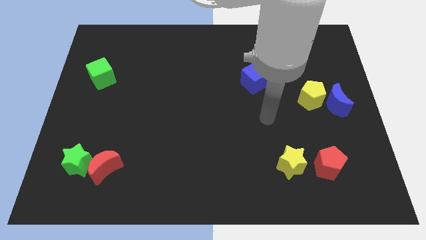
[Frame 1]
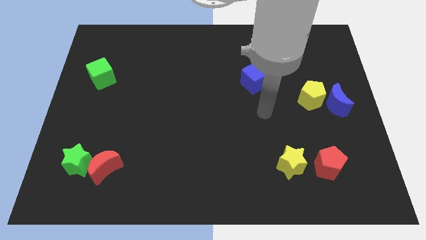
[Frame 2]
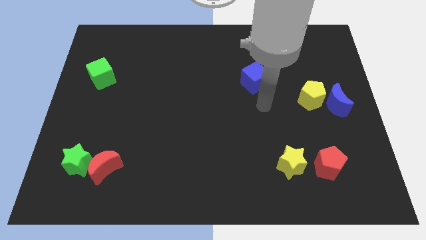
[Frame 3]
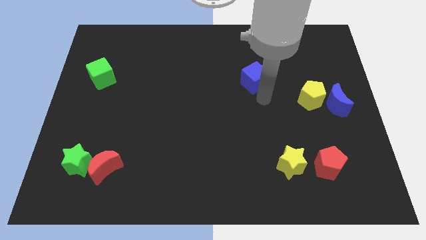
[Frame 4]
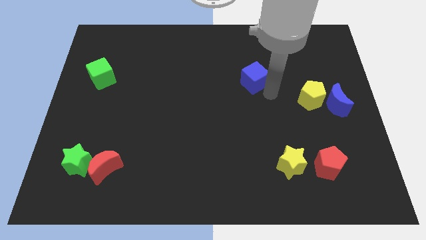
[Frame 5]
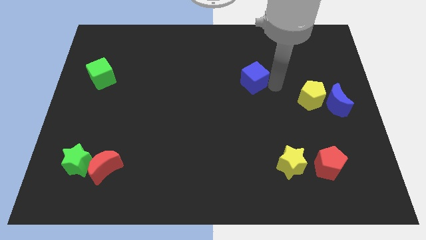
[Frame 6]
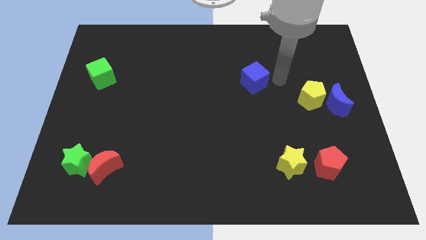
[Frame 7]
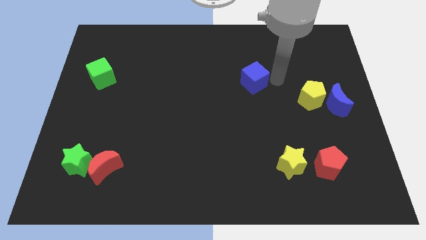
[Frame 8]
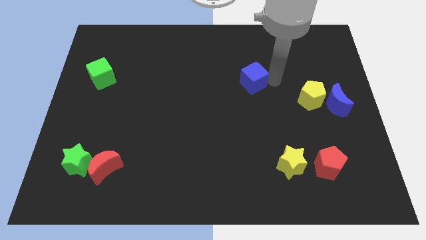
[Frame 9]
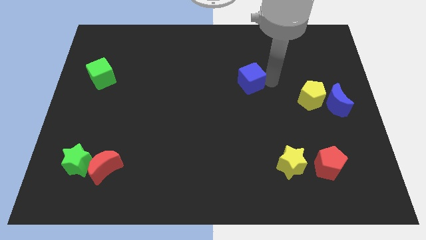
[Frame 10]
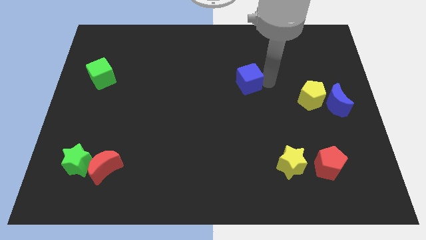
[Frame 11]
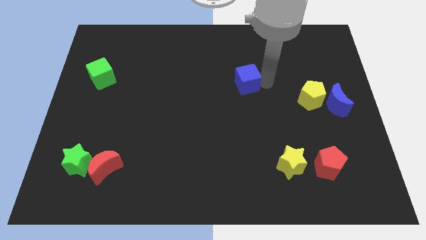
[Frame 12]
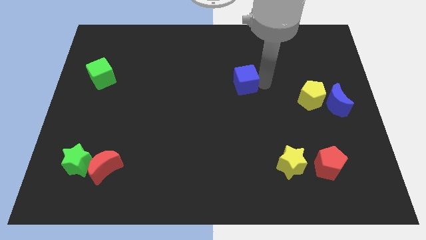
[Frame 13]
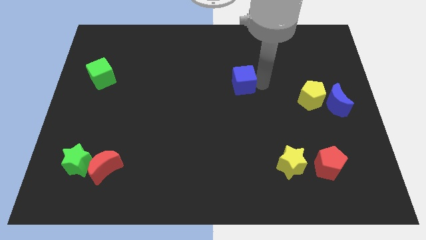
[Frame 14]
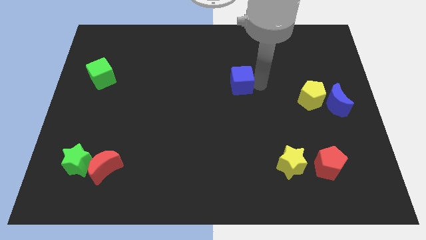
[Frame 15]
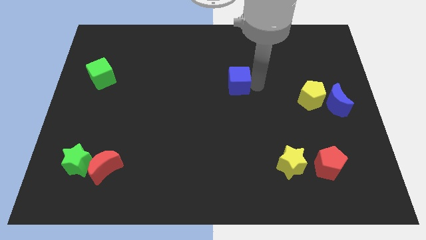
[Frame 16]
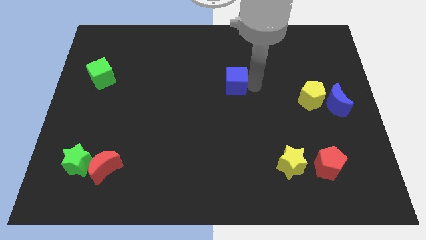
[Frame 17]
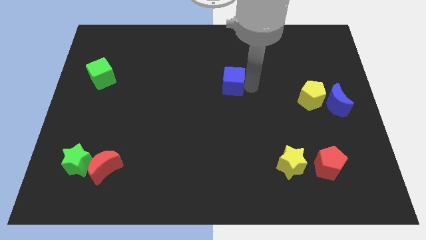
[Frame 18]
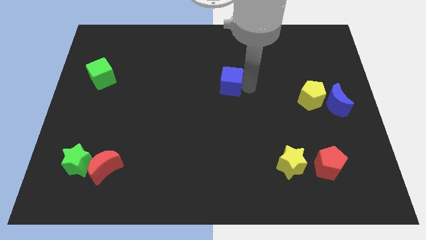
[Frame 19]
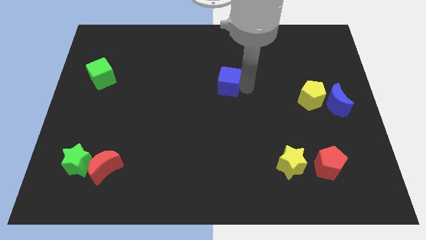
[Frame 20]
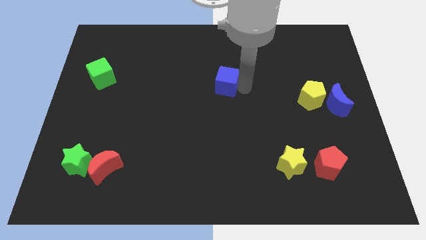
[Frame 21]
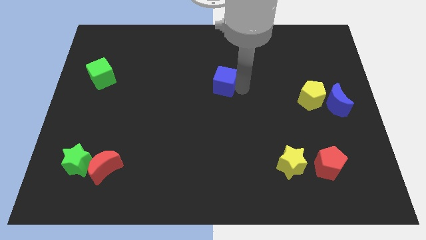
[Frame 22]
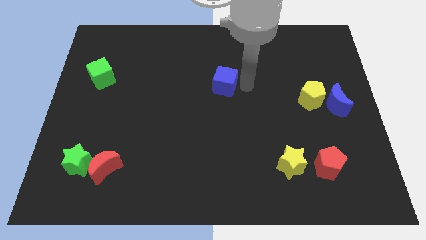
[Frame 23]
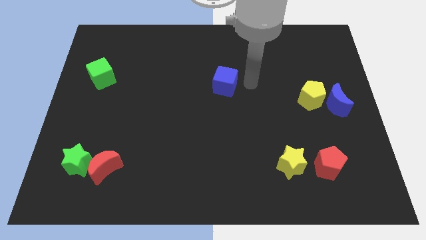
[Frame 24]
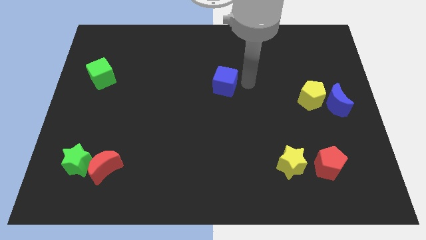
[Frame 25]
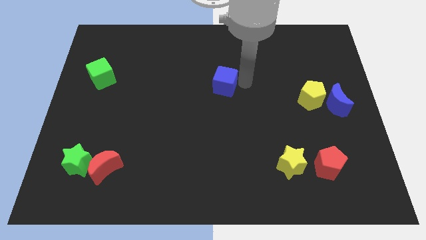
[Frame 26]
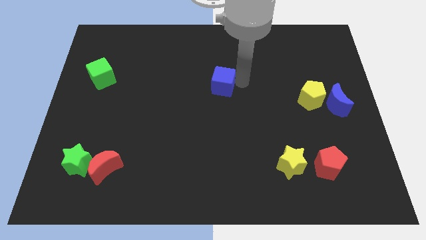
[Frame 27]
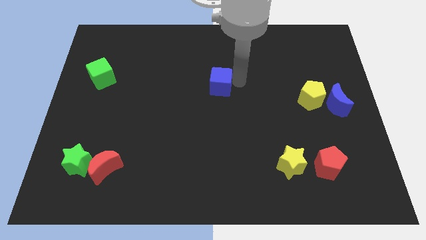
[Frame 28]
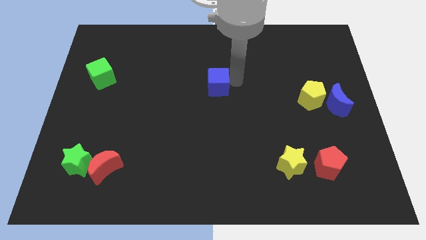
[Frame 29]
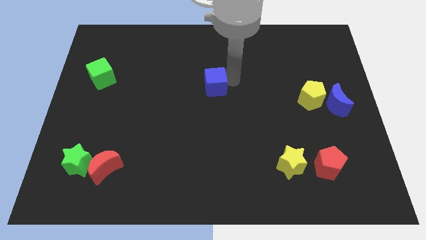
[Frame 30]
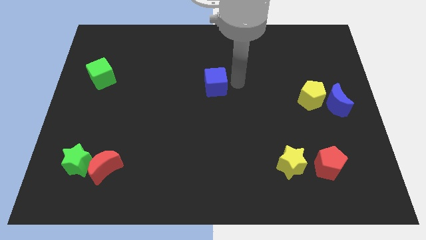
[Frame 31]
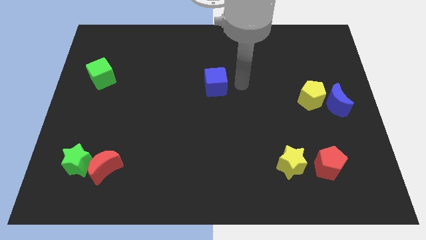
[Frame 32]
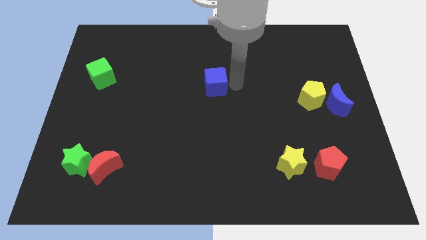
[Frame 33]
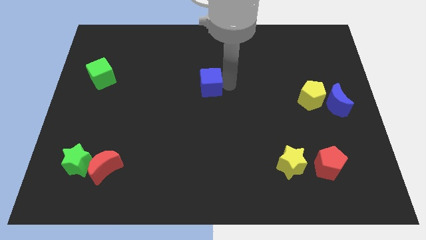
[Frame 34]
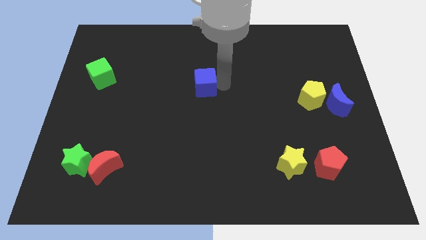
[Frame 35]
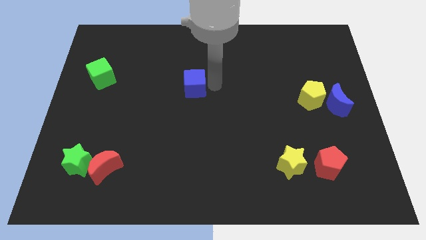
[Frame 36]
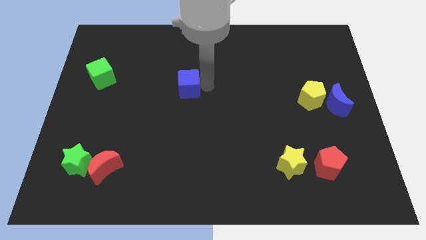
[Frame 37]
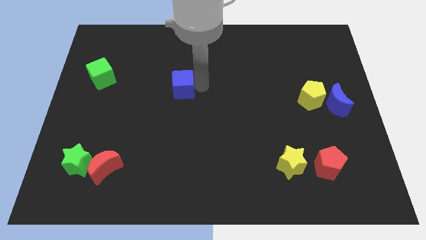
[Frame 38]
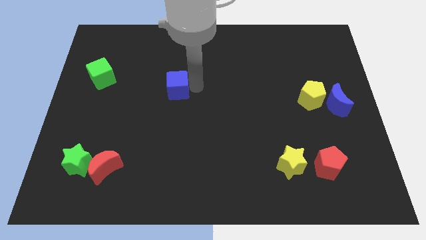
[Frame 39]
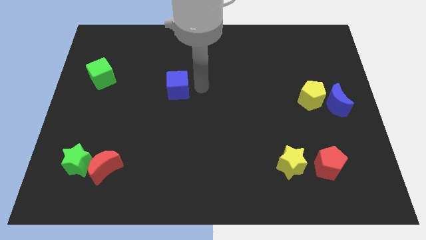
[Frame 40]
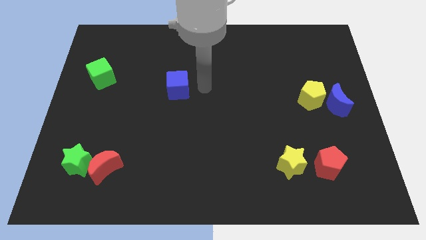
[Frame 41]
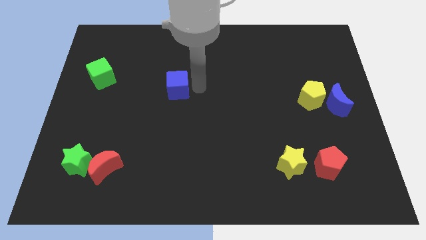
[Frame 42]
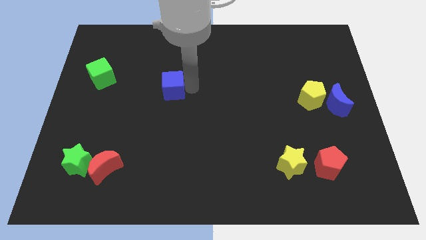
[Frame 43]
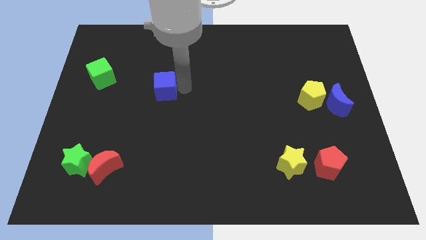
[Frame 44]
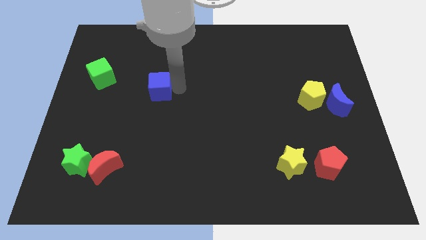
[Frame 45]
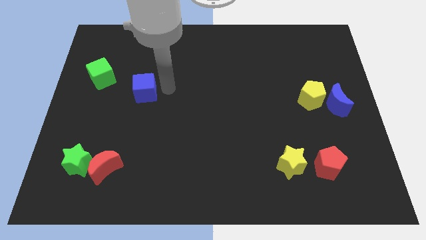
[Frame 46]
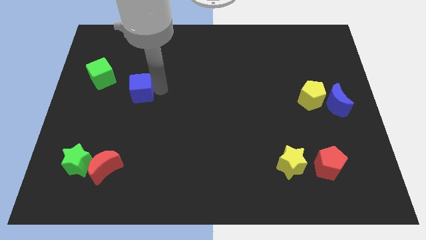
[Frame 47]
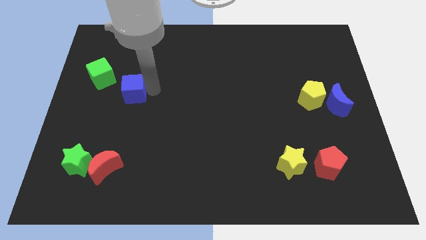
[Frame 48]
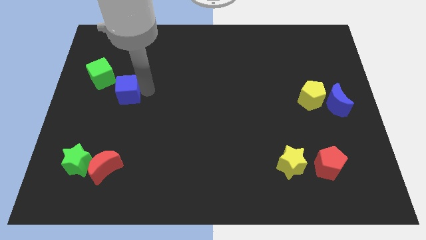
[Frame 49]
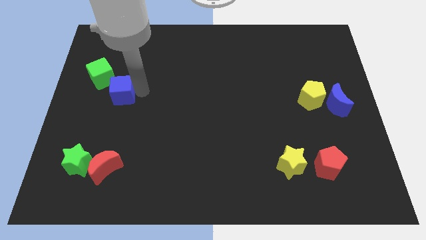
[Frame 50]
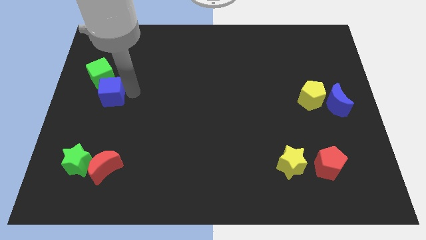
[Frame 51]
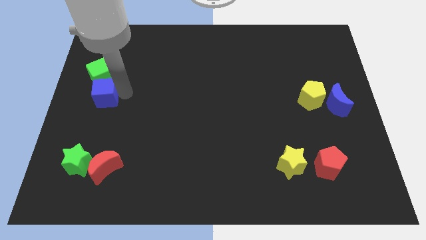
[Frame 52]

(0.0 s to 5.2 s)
move the blue cube to the left side of the board

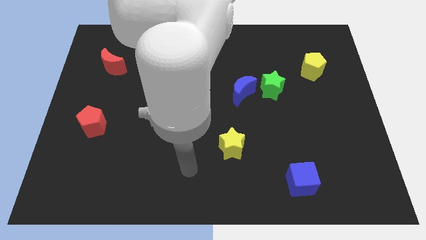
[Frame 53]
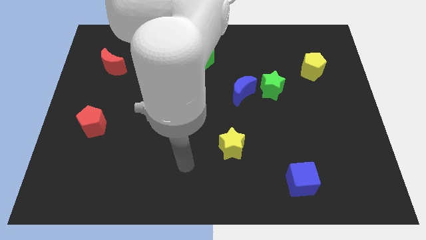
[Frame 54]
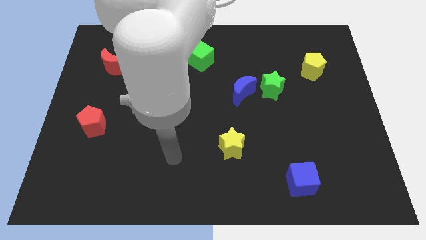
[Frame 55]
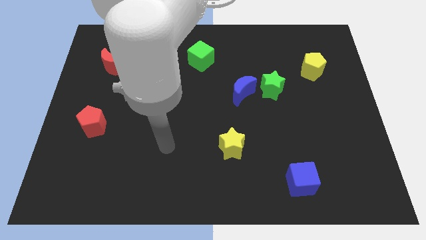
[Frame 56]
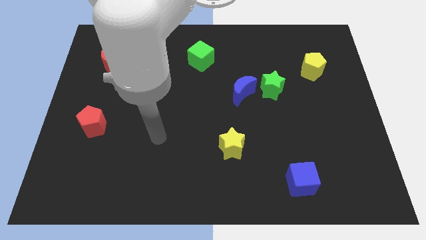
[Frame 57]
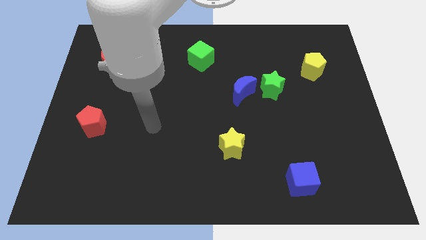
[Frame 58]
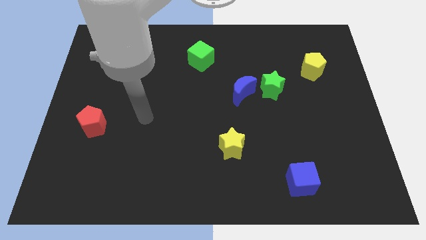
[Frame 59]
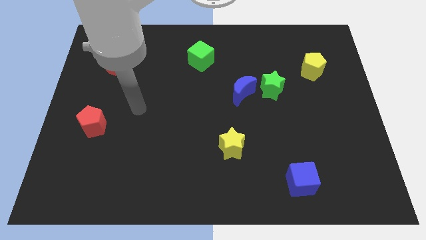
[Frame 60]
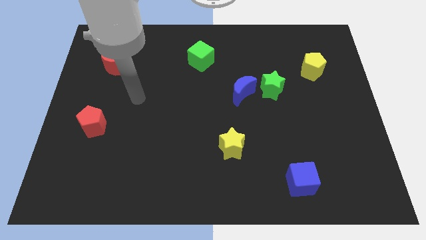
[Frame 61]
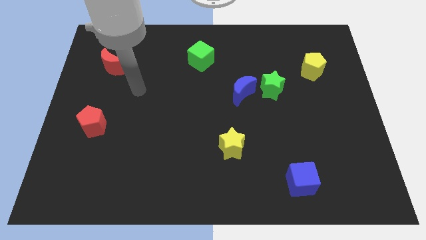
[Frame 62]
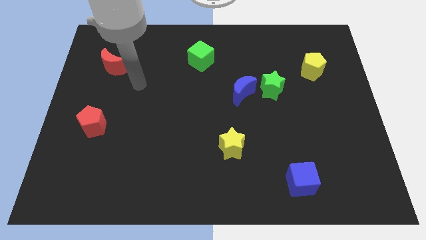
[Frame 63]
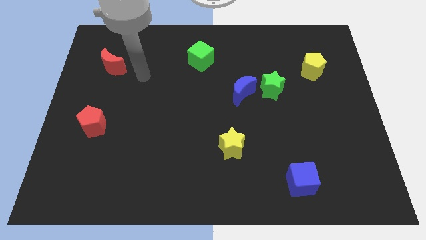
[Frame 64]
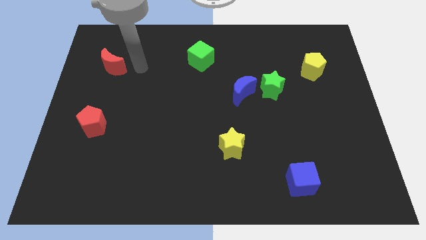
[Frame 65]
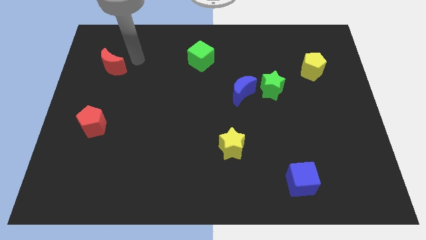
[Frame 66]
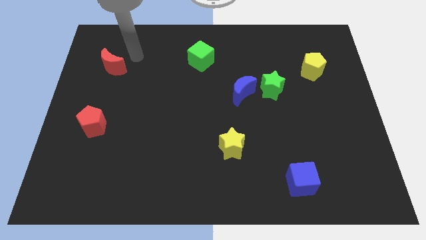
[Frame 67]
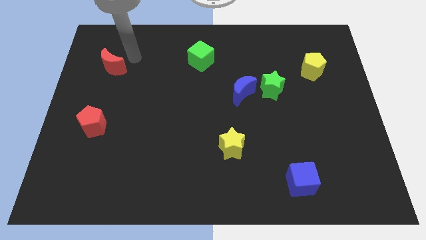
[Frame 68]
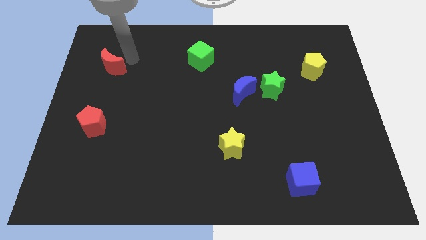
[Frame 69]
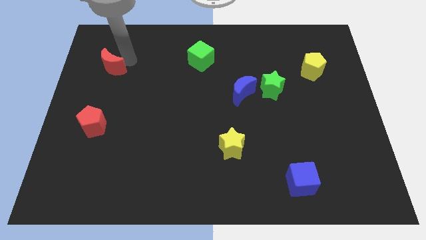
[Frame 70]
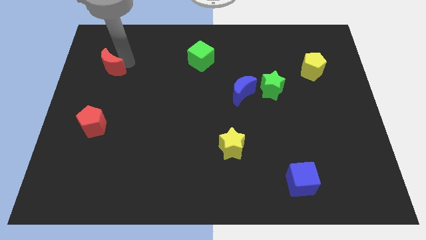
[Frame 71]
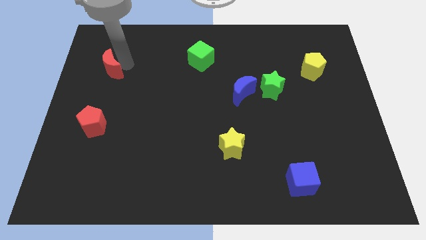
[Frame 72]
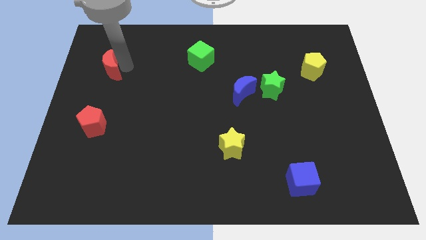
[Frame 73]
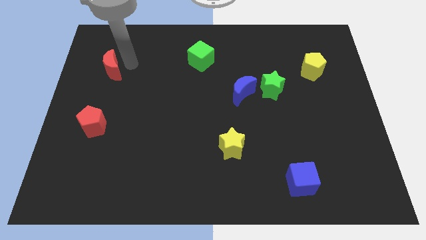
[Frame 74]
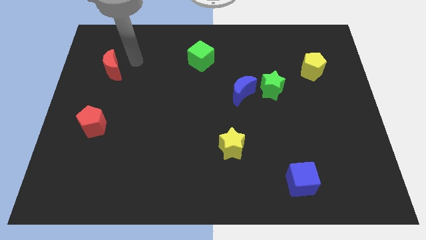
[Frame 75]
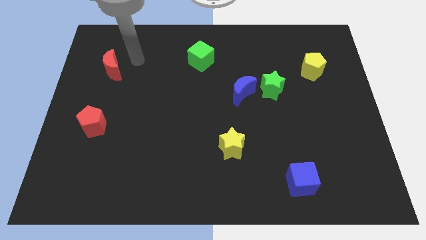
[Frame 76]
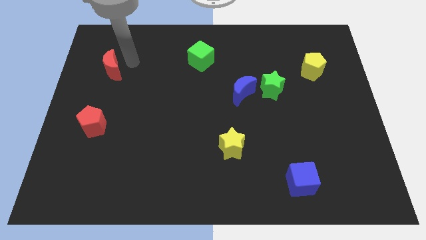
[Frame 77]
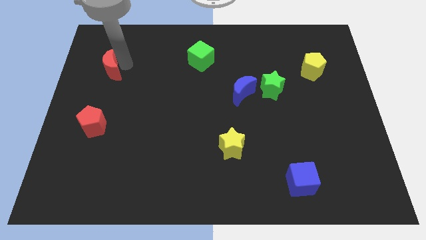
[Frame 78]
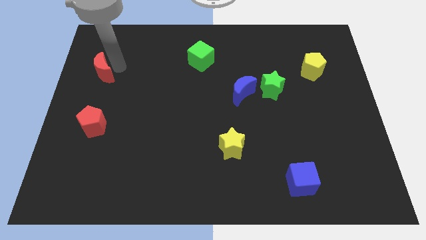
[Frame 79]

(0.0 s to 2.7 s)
push the red moon to the left side of the board

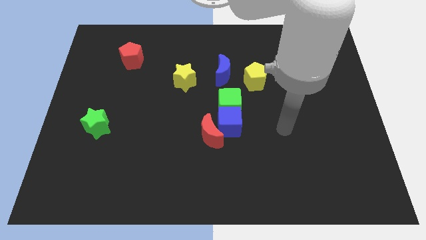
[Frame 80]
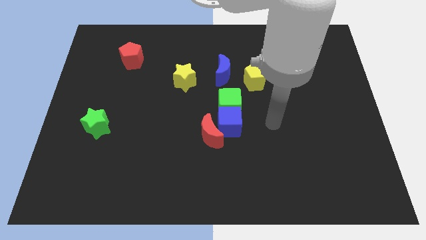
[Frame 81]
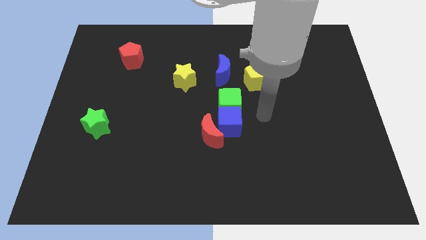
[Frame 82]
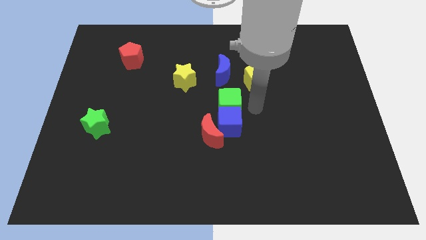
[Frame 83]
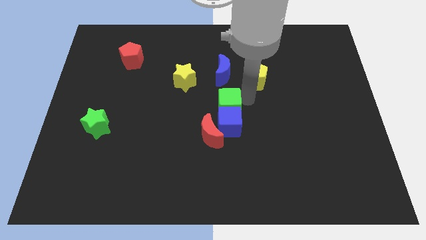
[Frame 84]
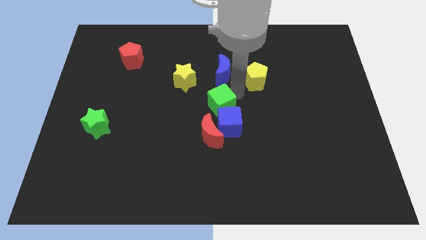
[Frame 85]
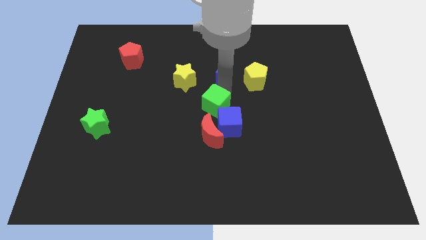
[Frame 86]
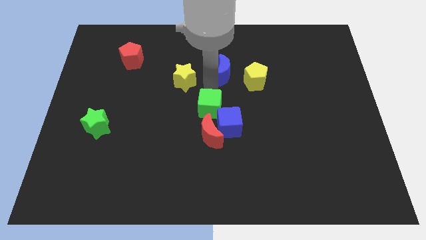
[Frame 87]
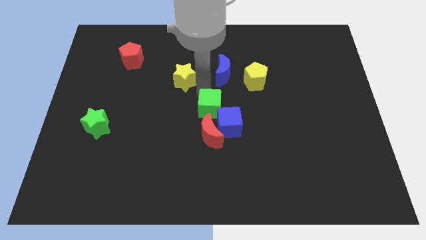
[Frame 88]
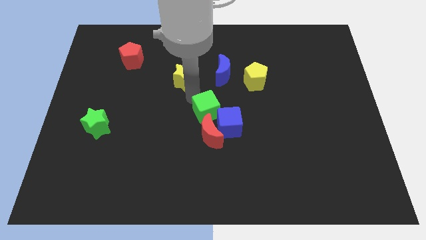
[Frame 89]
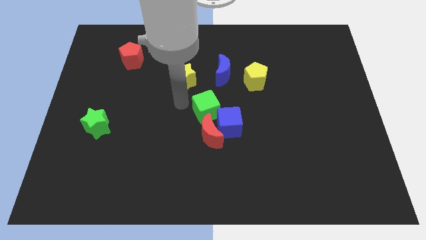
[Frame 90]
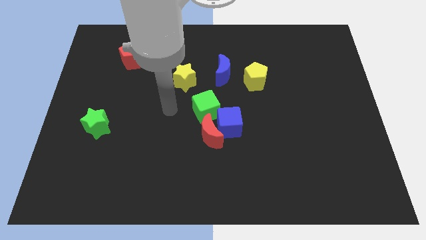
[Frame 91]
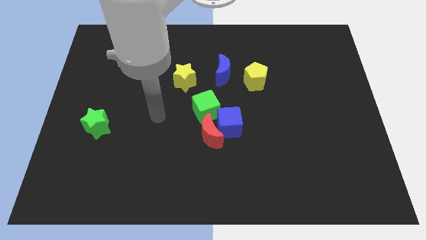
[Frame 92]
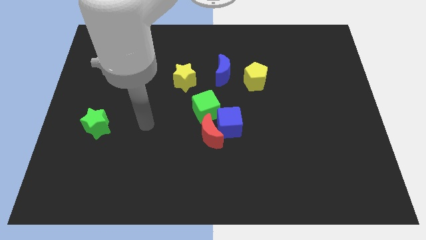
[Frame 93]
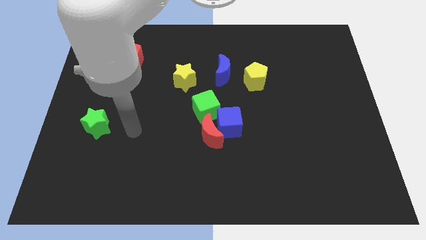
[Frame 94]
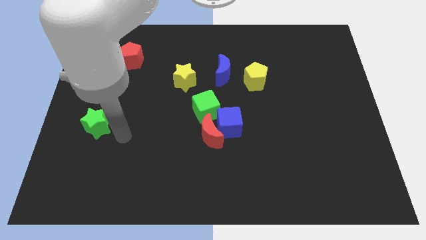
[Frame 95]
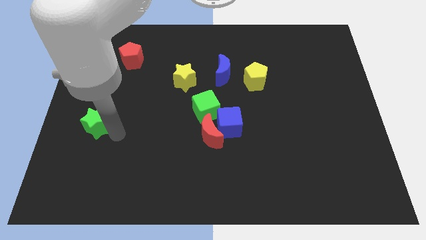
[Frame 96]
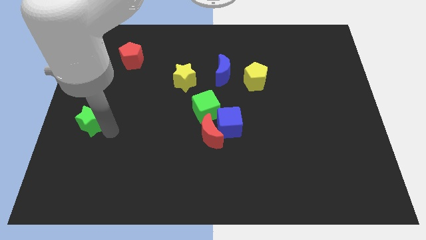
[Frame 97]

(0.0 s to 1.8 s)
slide the green star to the left side
